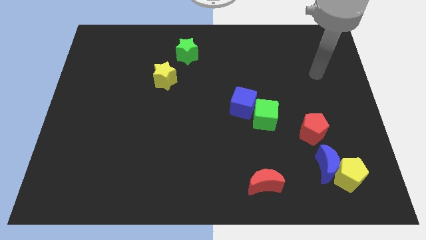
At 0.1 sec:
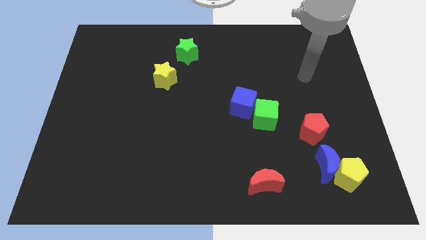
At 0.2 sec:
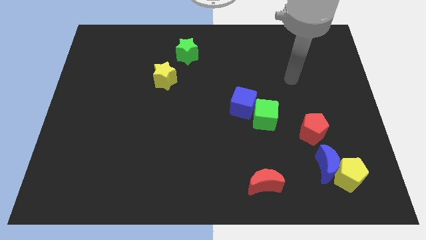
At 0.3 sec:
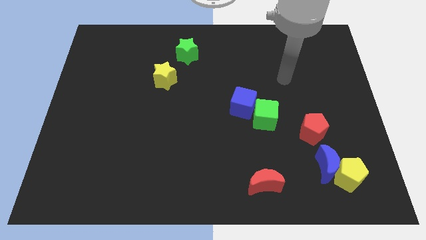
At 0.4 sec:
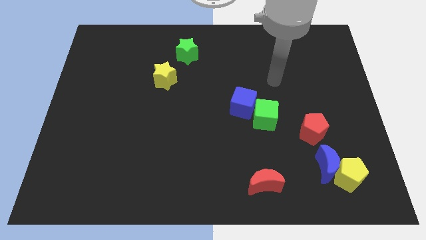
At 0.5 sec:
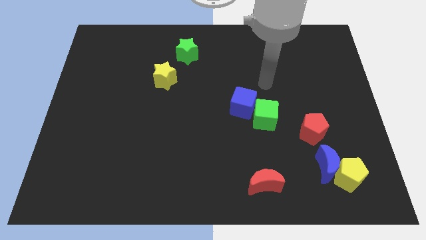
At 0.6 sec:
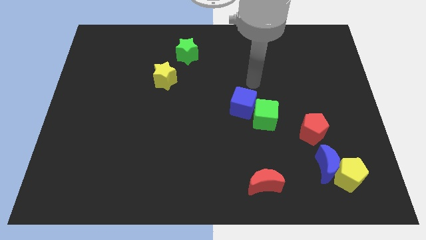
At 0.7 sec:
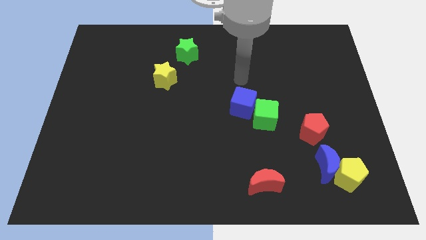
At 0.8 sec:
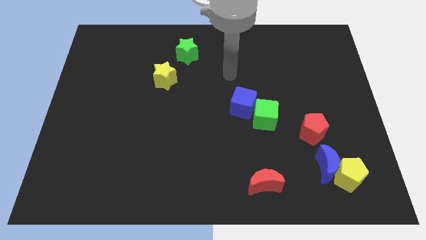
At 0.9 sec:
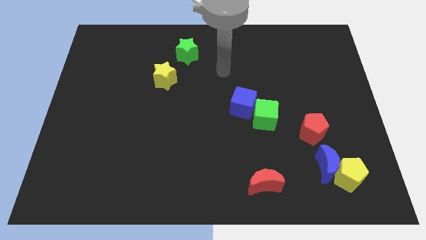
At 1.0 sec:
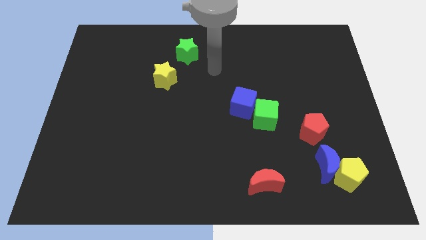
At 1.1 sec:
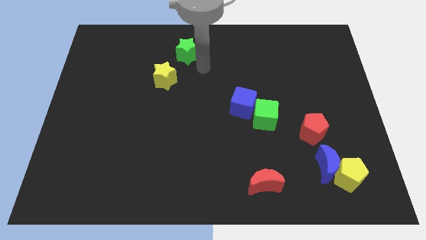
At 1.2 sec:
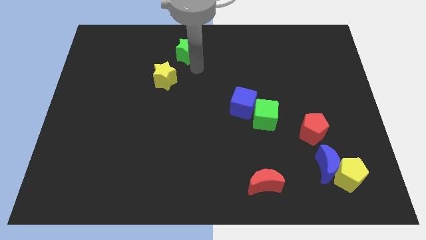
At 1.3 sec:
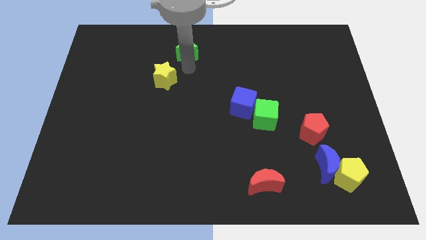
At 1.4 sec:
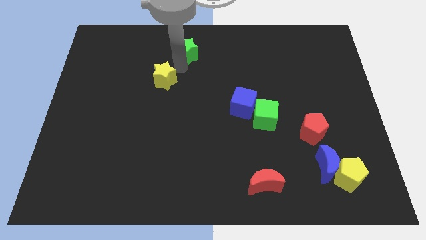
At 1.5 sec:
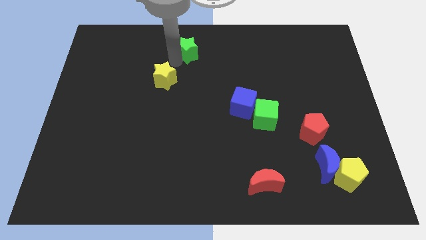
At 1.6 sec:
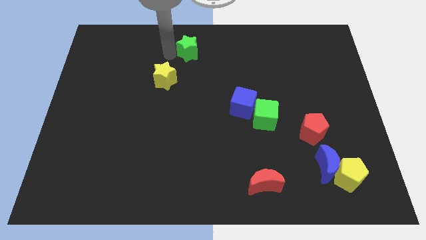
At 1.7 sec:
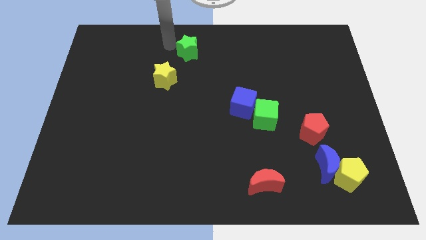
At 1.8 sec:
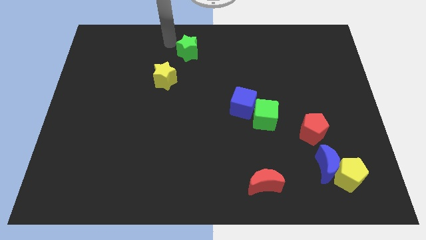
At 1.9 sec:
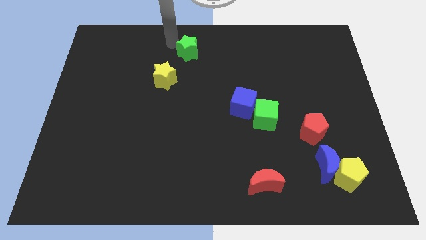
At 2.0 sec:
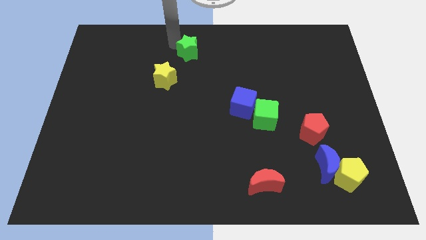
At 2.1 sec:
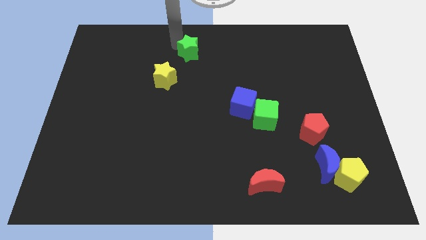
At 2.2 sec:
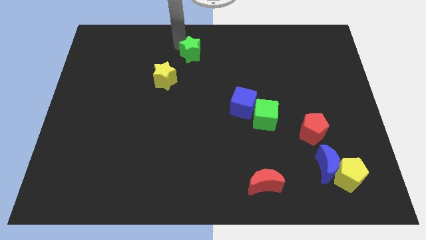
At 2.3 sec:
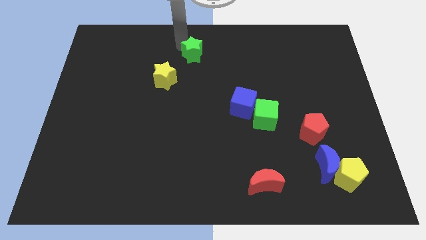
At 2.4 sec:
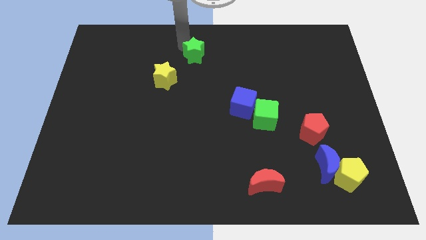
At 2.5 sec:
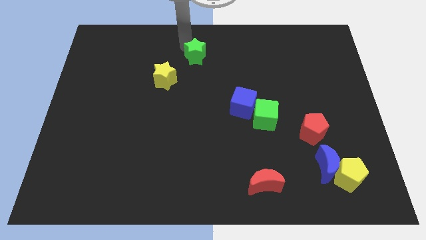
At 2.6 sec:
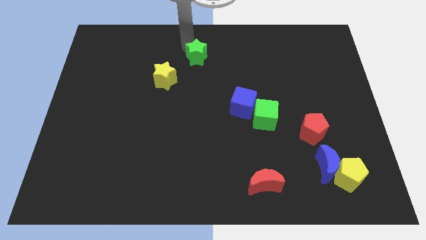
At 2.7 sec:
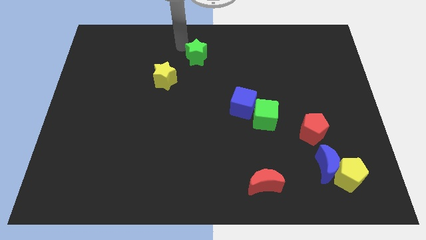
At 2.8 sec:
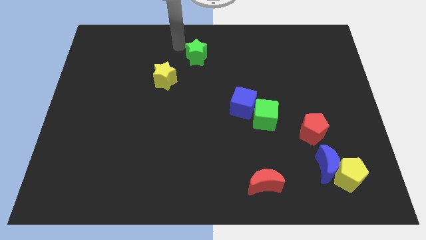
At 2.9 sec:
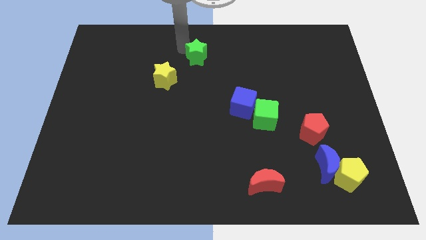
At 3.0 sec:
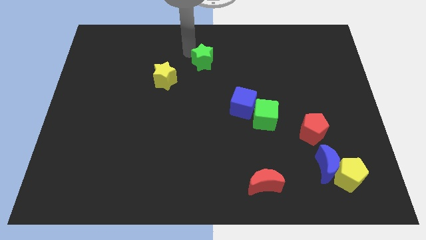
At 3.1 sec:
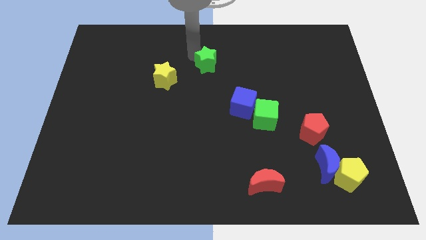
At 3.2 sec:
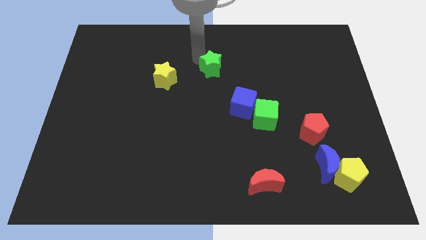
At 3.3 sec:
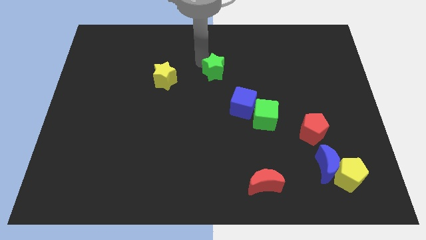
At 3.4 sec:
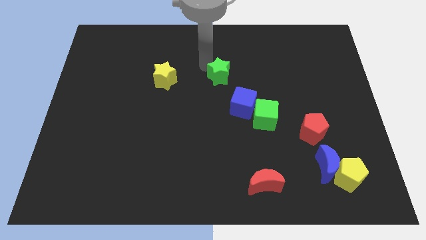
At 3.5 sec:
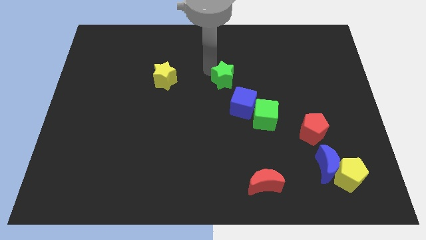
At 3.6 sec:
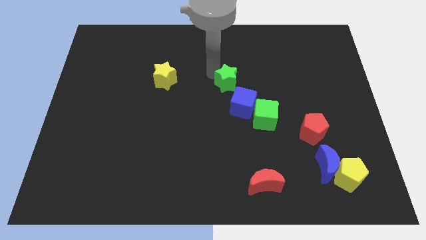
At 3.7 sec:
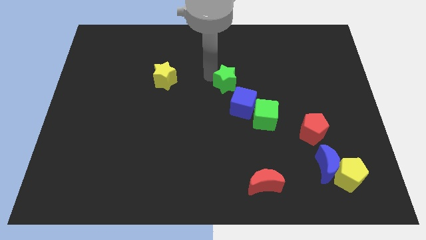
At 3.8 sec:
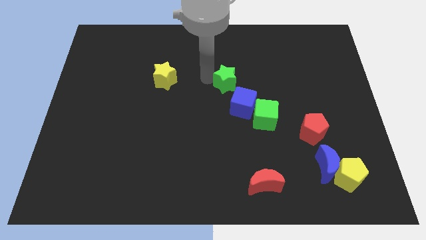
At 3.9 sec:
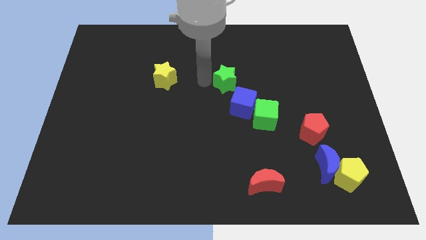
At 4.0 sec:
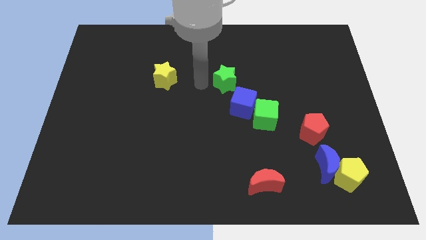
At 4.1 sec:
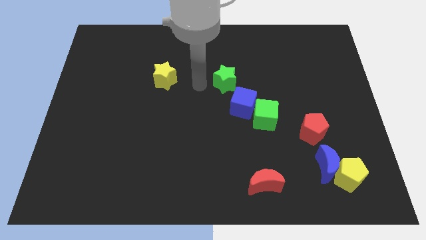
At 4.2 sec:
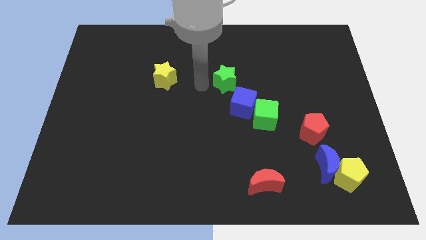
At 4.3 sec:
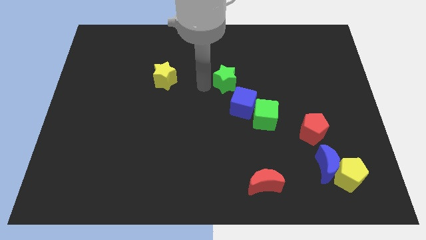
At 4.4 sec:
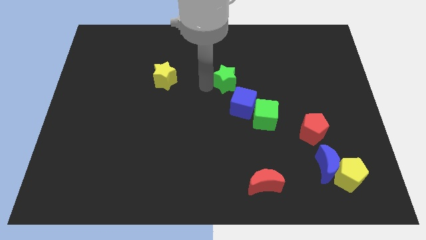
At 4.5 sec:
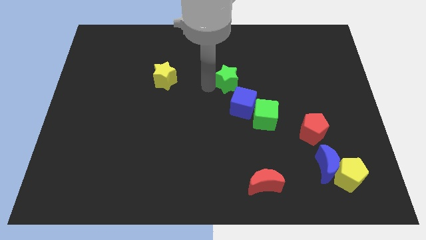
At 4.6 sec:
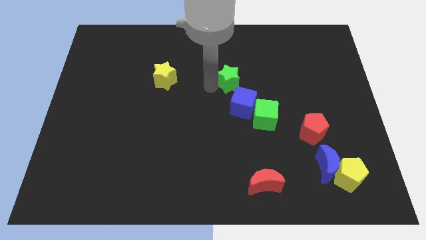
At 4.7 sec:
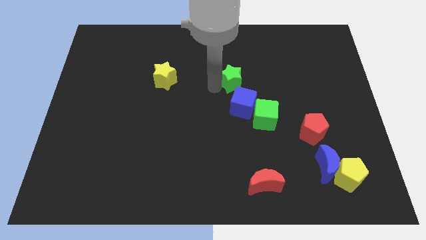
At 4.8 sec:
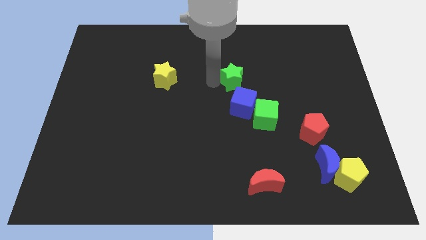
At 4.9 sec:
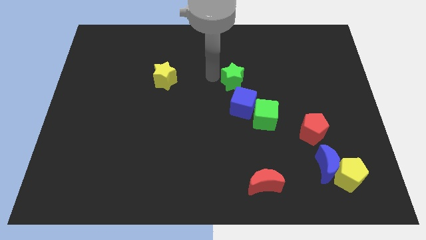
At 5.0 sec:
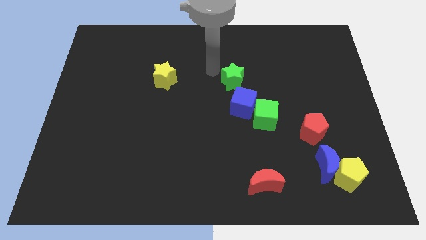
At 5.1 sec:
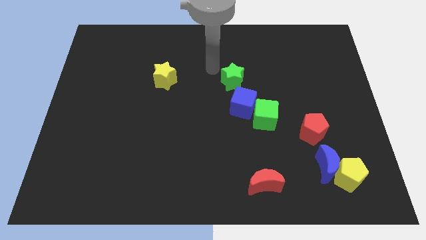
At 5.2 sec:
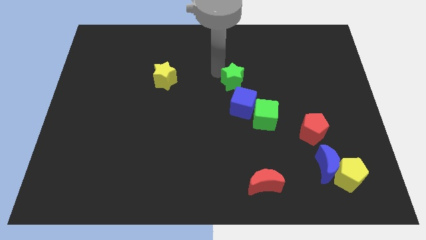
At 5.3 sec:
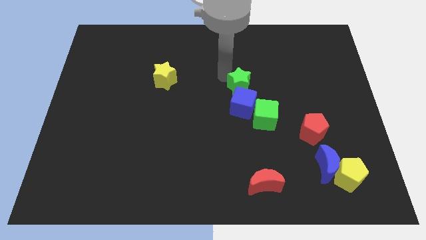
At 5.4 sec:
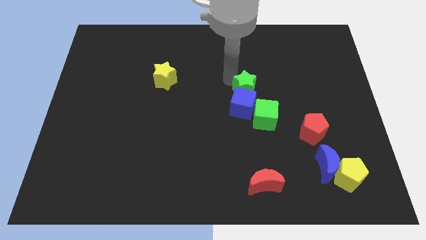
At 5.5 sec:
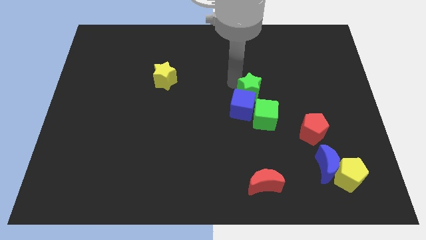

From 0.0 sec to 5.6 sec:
move the green star down and right

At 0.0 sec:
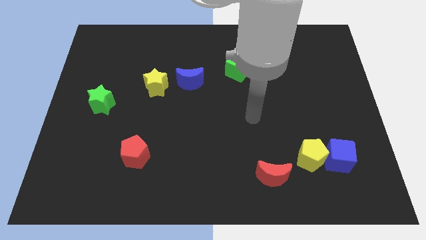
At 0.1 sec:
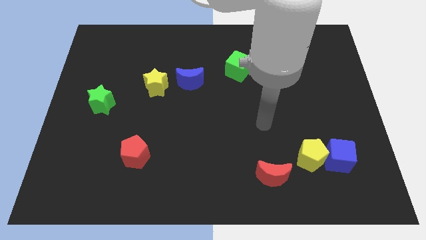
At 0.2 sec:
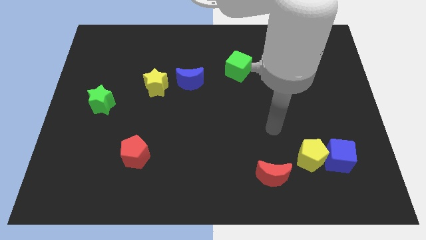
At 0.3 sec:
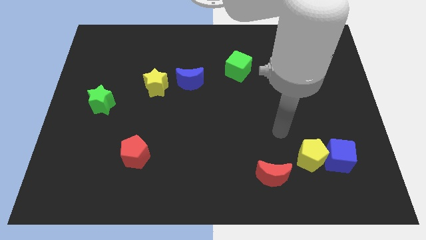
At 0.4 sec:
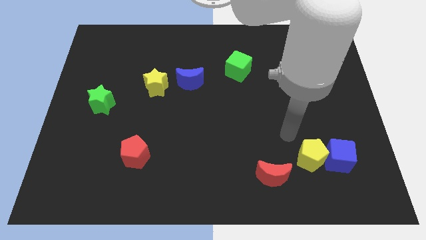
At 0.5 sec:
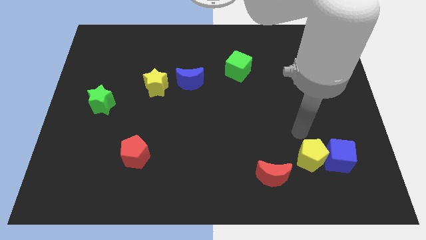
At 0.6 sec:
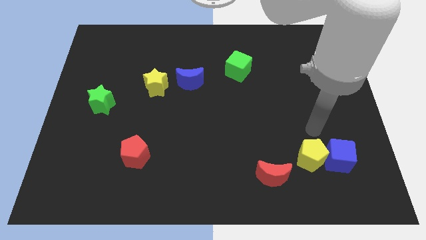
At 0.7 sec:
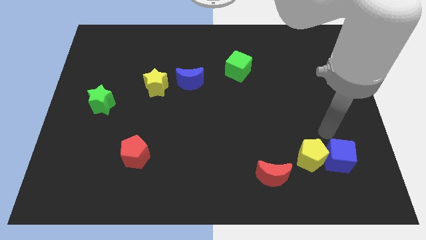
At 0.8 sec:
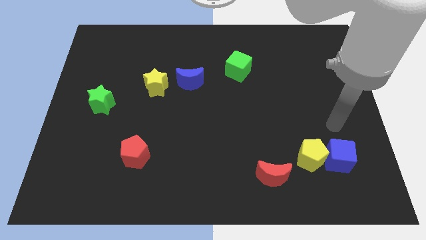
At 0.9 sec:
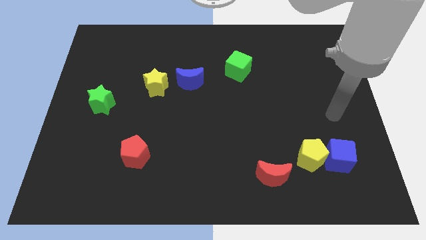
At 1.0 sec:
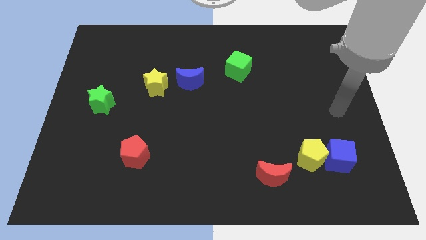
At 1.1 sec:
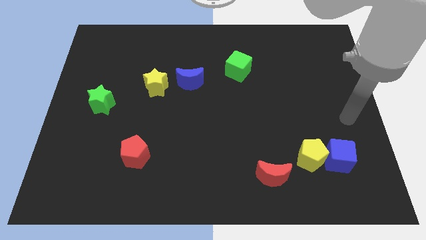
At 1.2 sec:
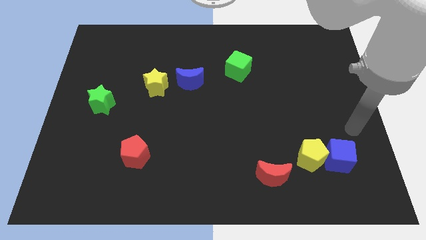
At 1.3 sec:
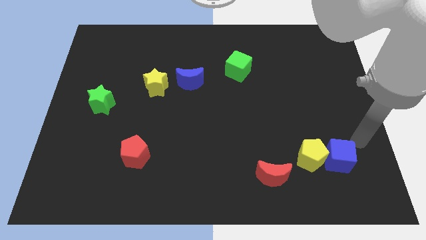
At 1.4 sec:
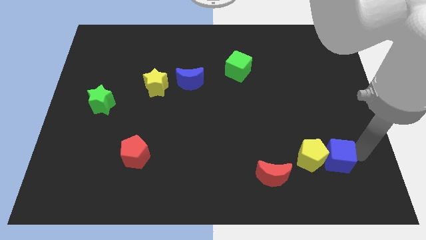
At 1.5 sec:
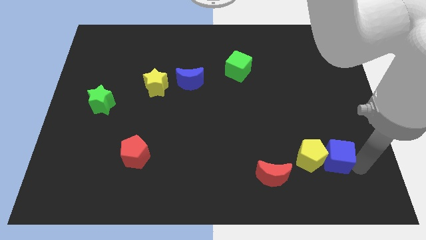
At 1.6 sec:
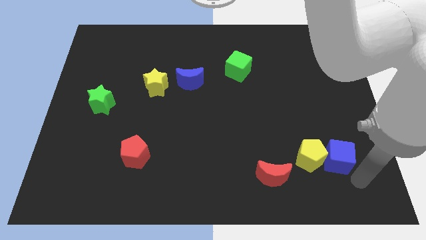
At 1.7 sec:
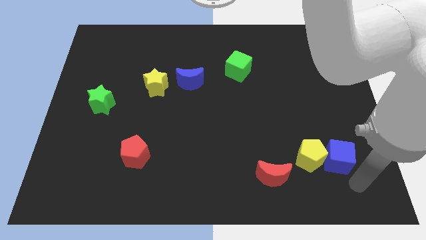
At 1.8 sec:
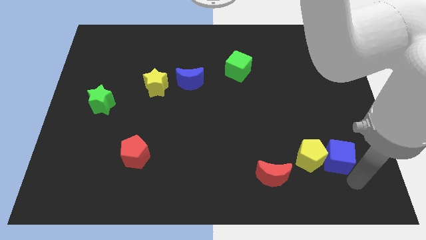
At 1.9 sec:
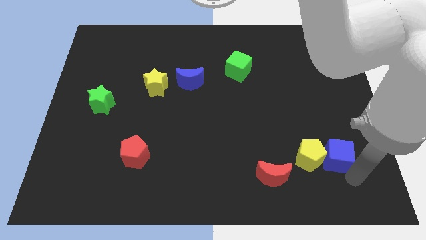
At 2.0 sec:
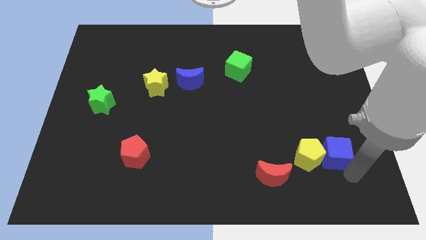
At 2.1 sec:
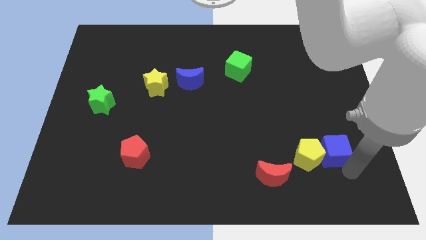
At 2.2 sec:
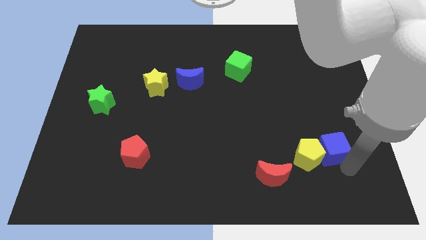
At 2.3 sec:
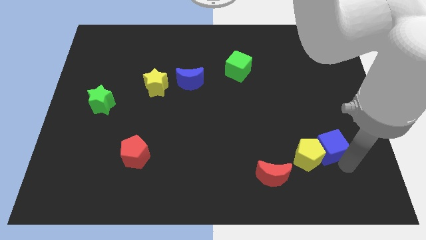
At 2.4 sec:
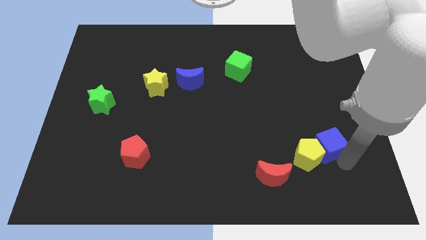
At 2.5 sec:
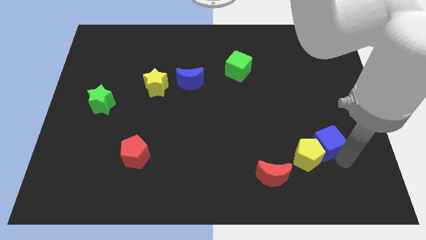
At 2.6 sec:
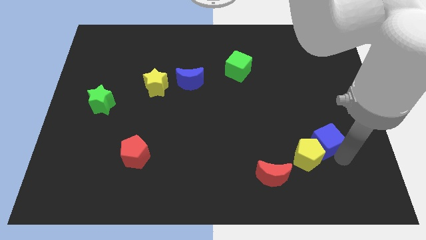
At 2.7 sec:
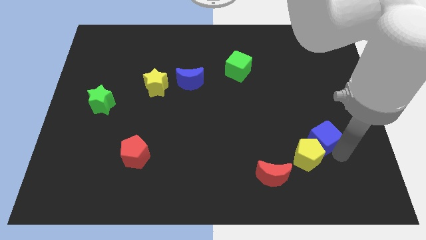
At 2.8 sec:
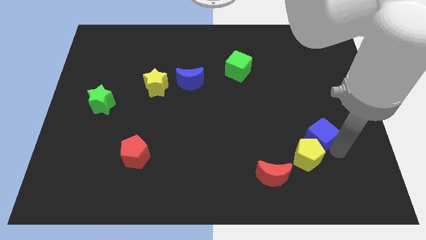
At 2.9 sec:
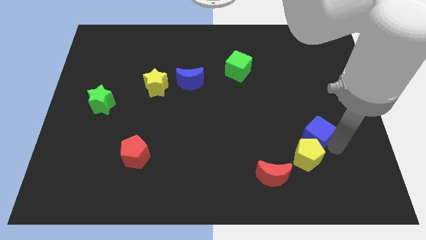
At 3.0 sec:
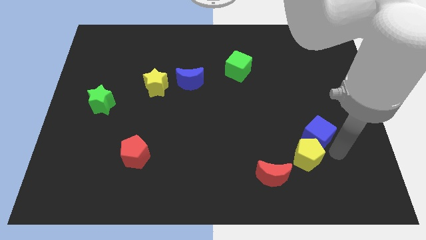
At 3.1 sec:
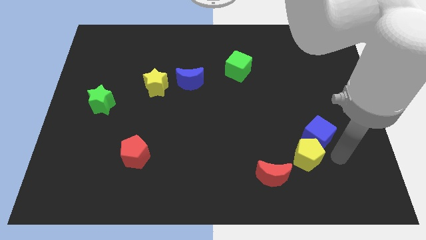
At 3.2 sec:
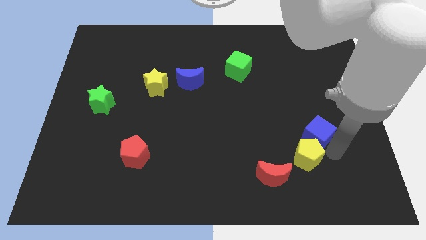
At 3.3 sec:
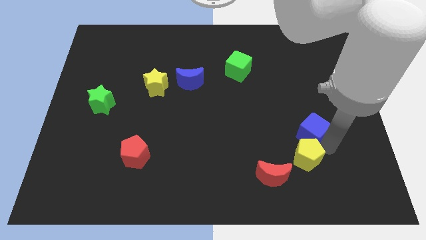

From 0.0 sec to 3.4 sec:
move the blue cube a little bit up and to the left
